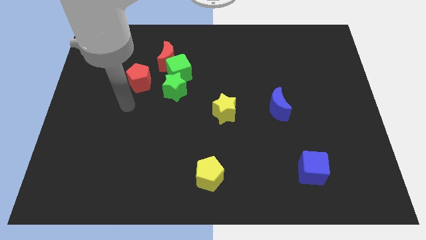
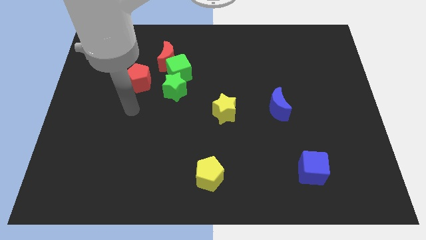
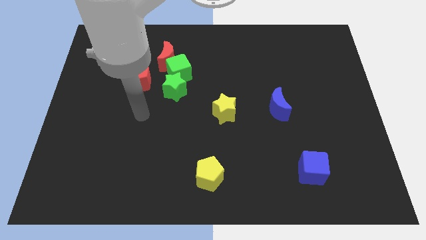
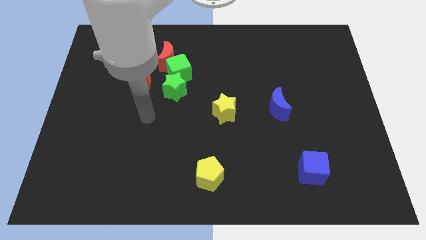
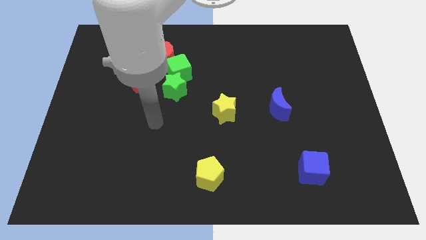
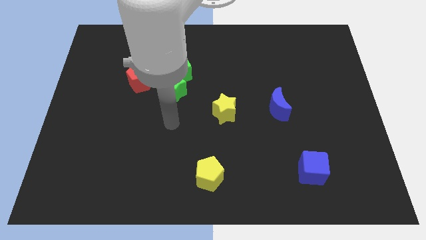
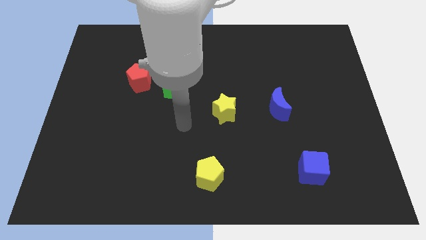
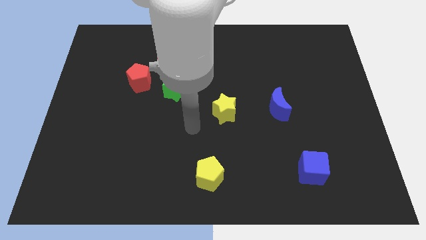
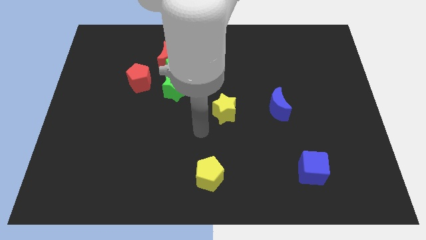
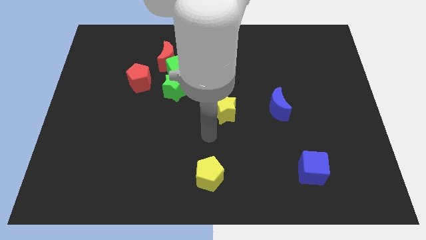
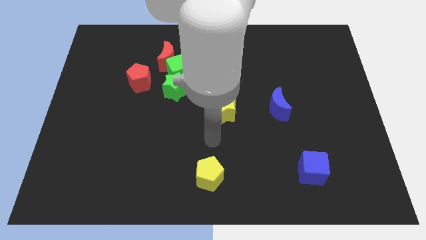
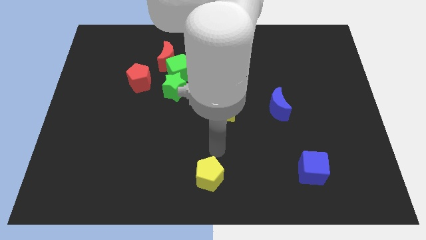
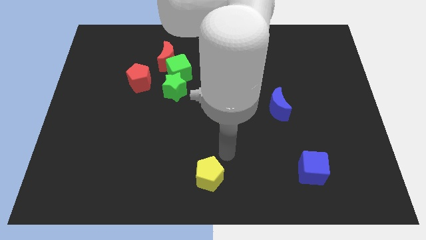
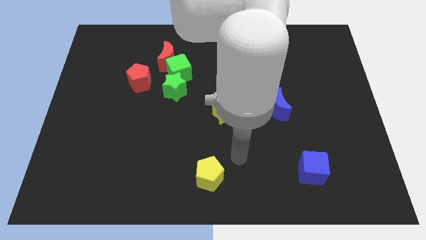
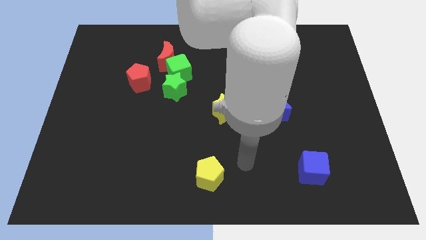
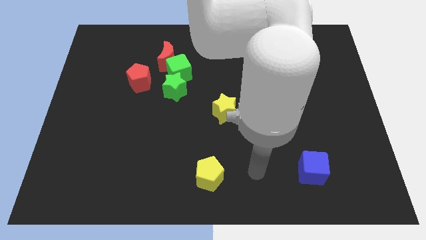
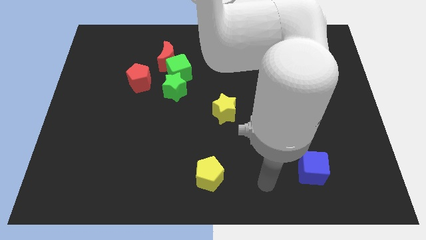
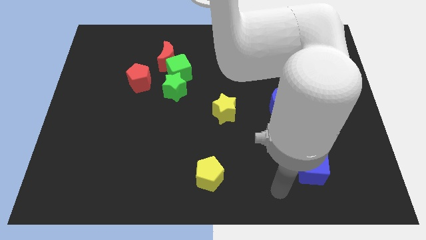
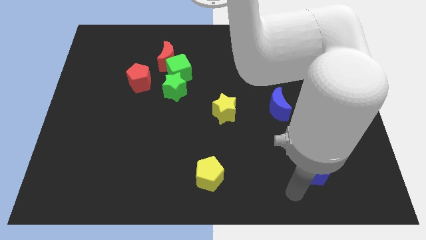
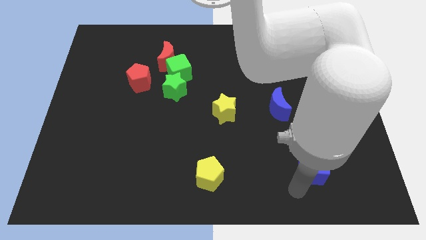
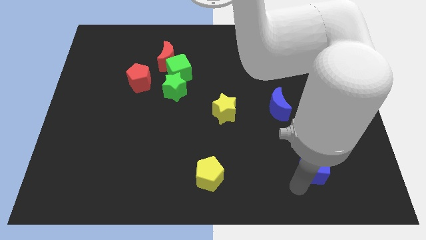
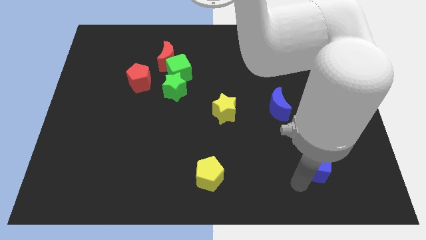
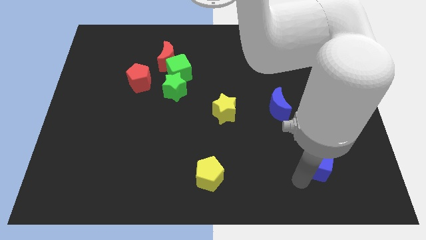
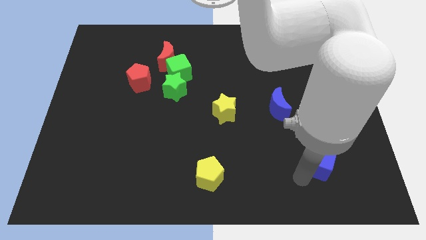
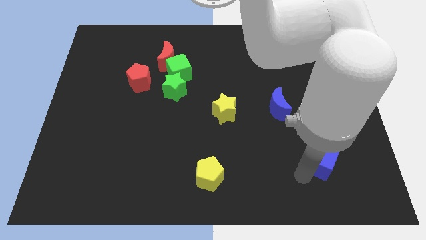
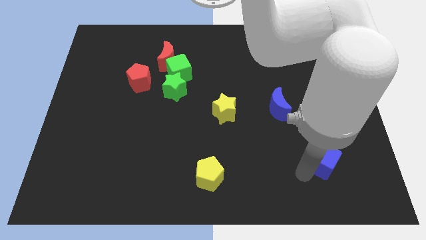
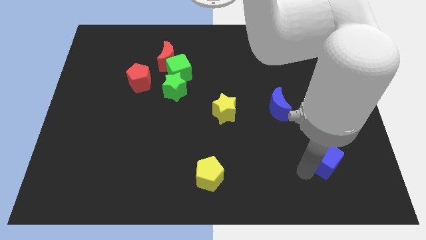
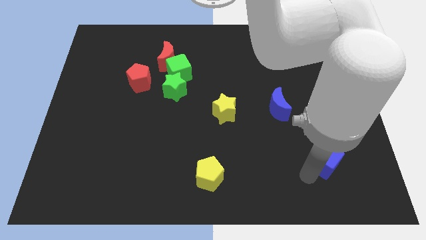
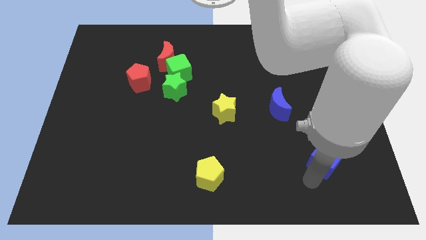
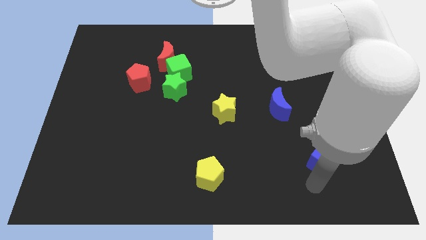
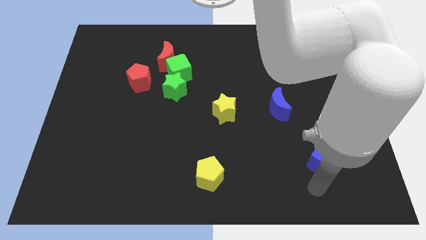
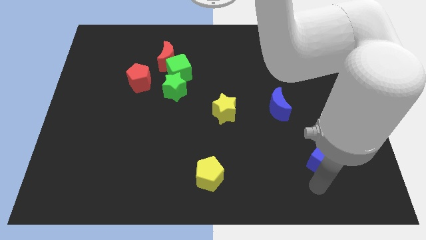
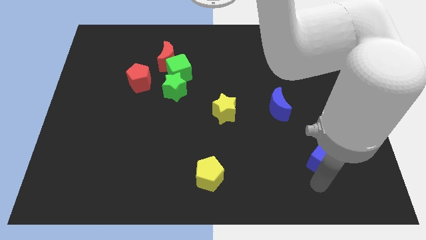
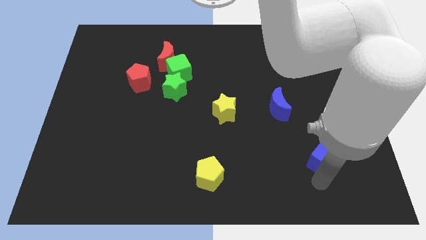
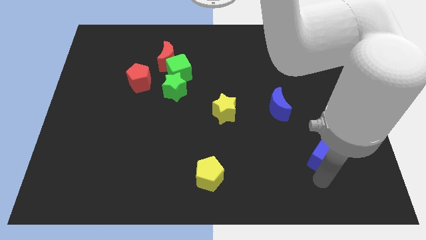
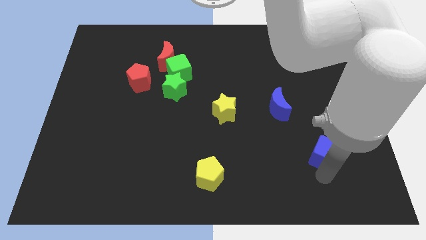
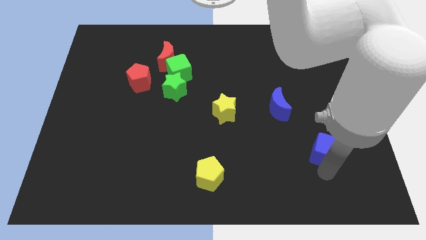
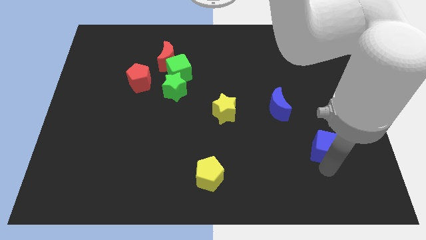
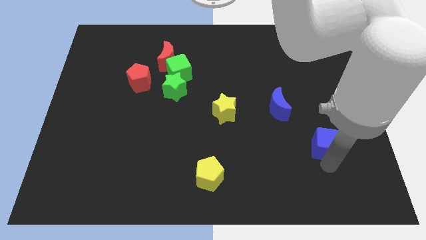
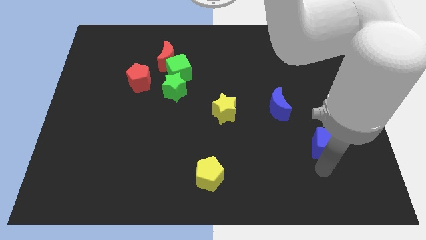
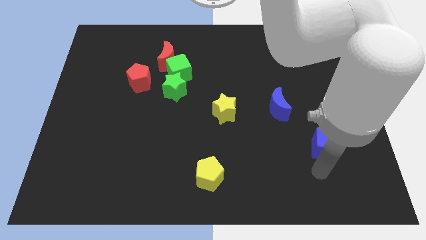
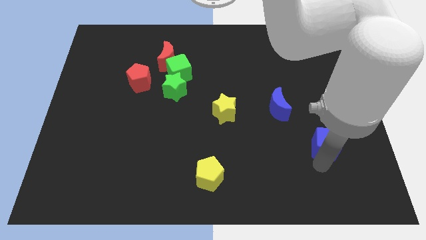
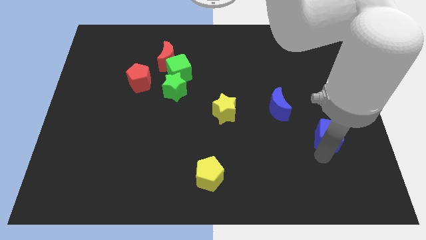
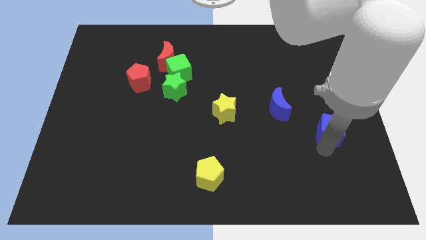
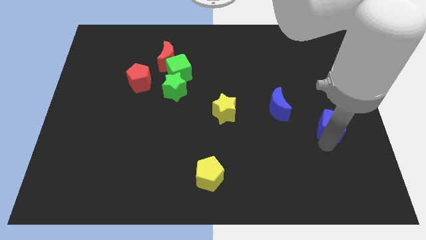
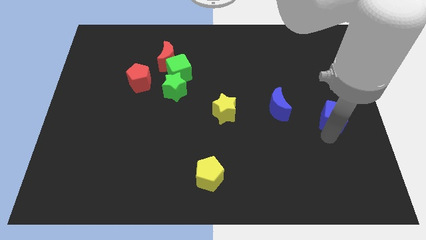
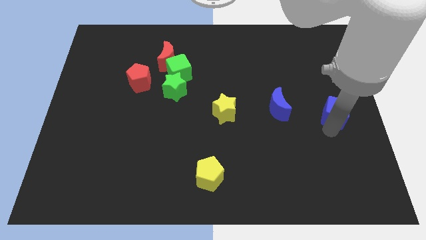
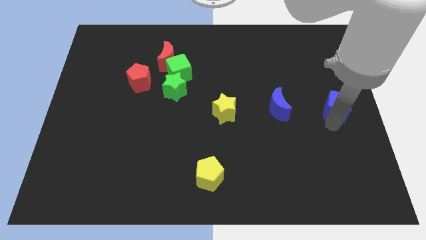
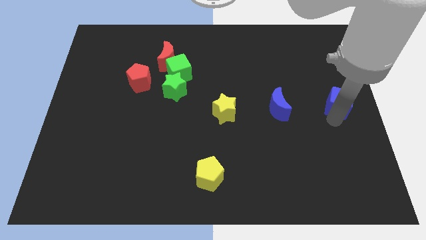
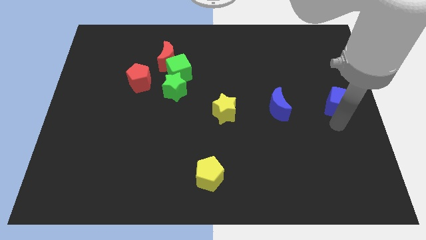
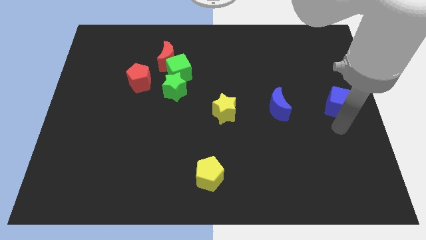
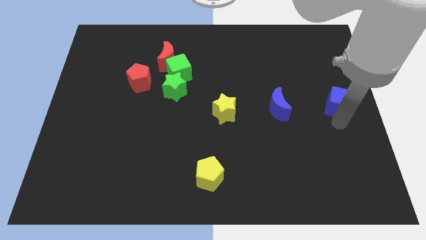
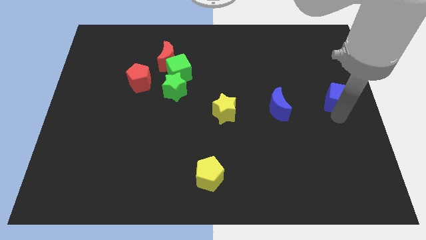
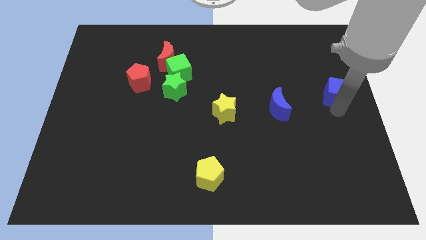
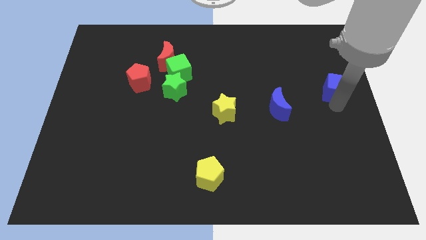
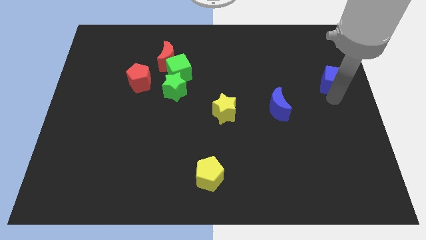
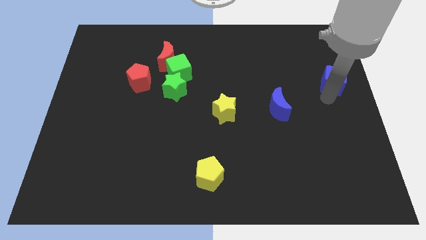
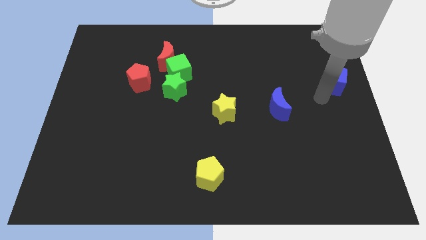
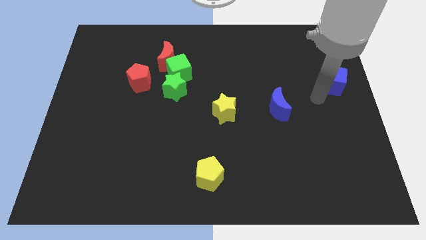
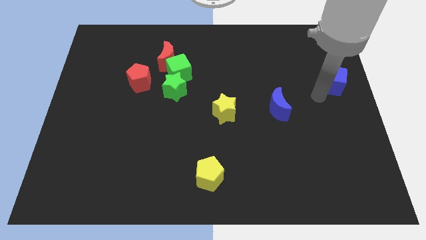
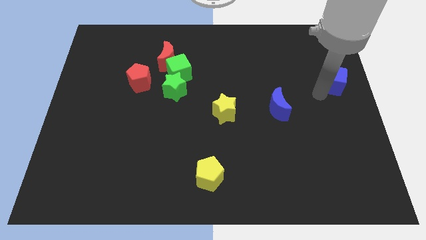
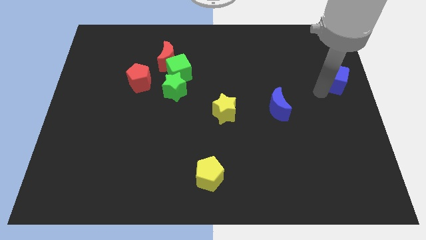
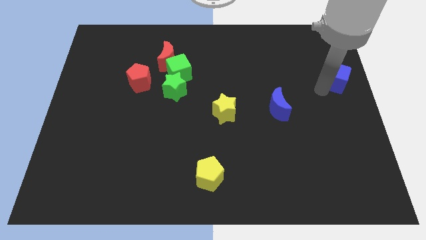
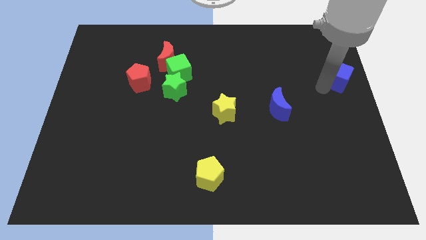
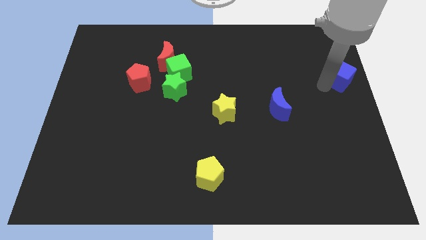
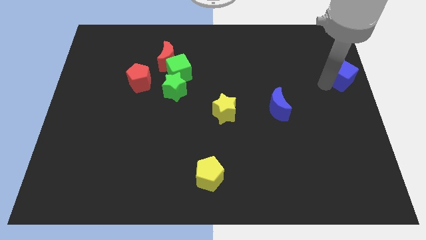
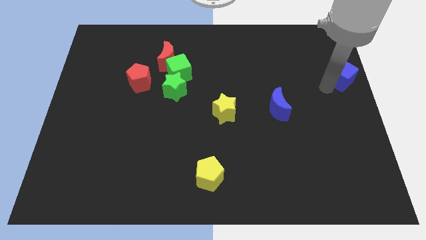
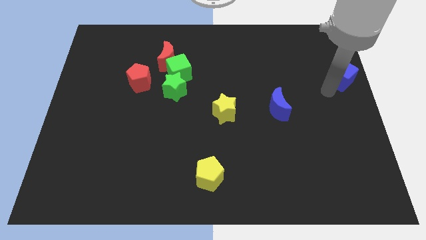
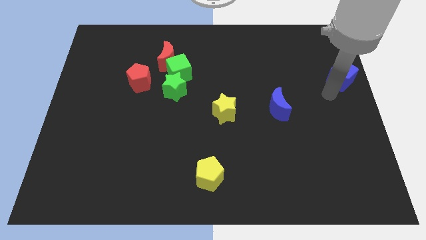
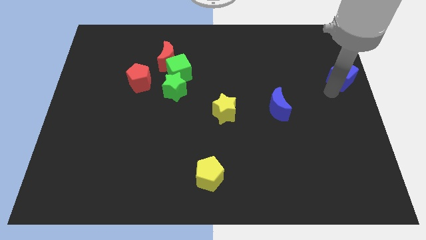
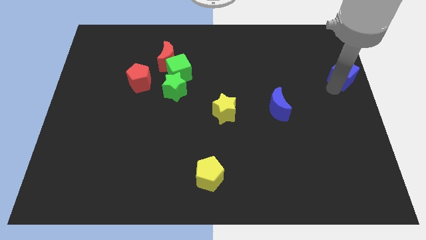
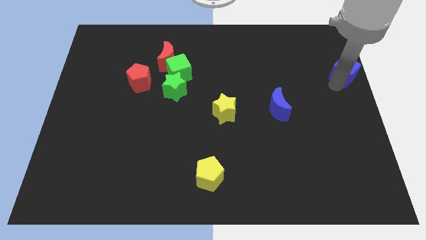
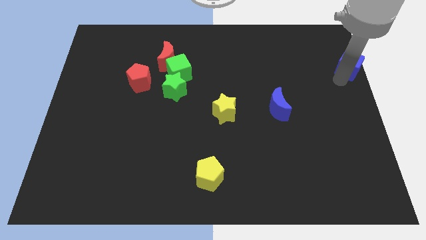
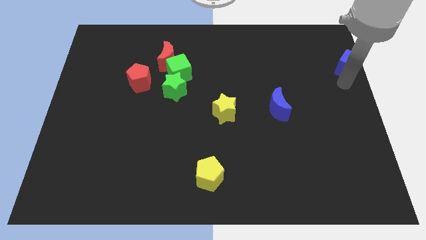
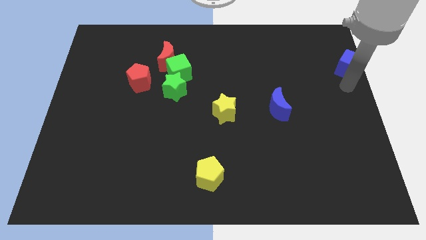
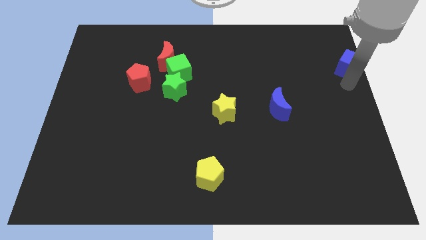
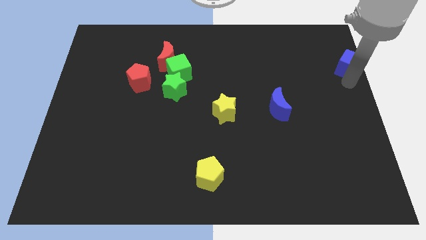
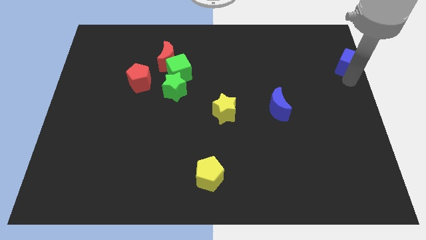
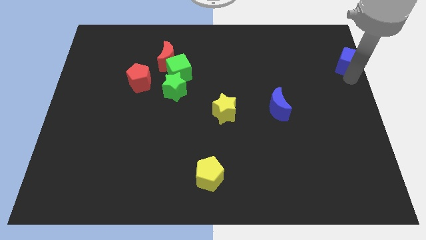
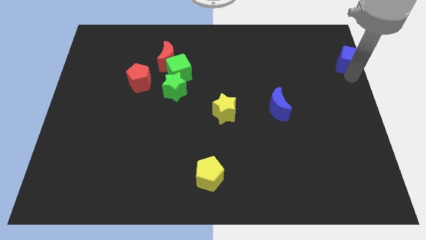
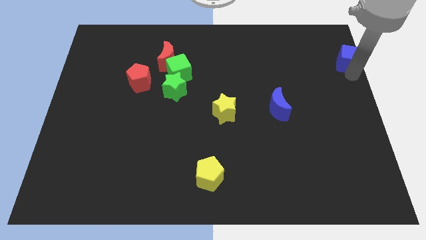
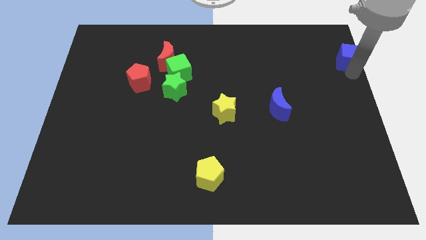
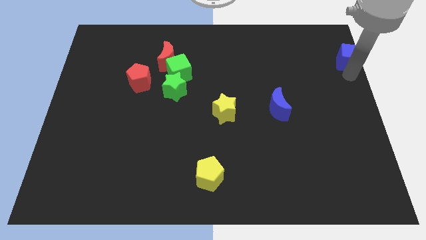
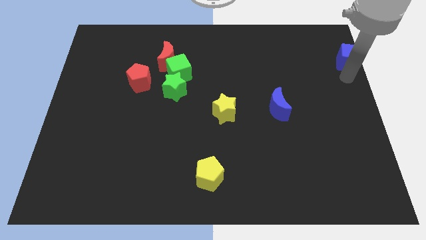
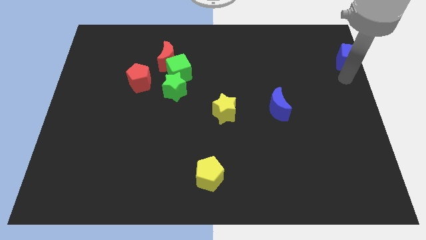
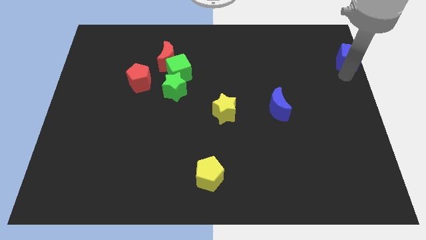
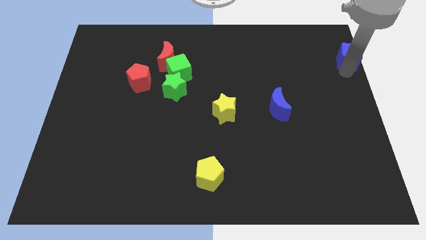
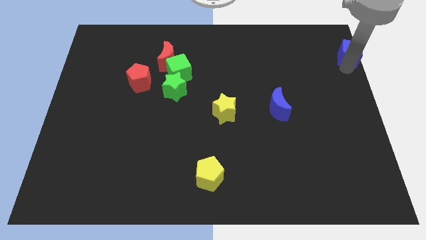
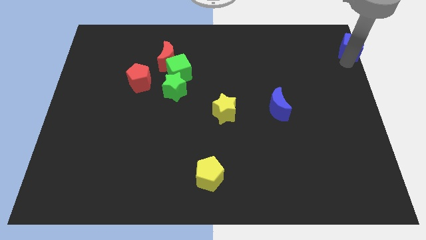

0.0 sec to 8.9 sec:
move the blue cube to the top right corner
